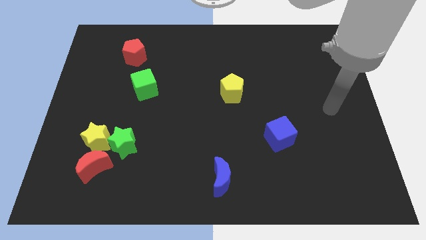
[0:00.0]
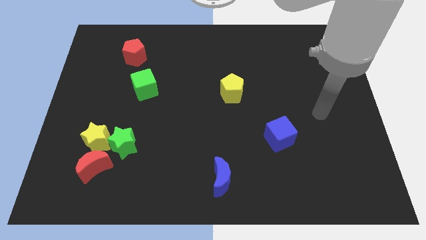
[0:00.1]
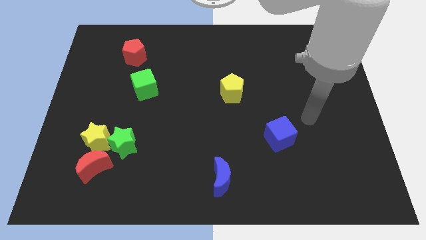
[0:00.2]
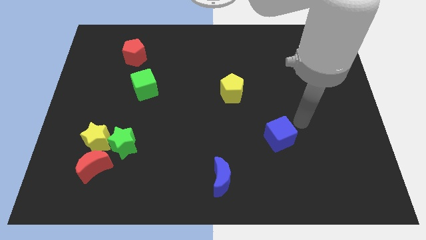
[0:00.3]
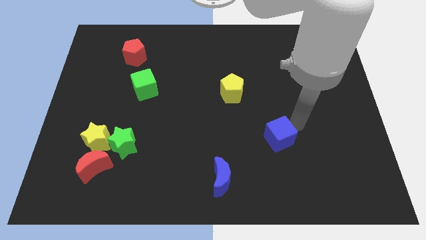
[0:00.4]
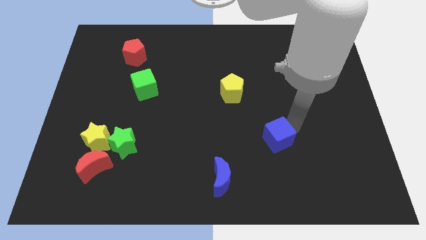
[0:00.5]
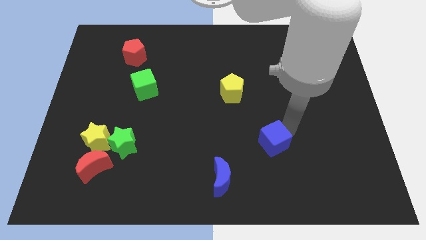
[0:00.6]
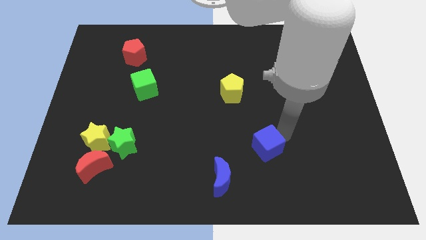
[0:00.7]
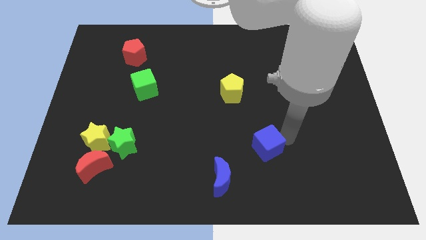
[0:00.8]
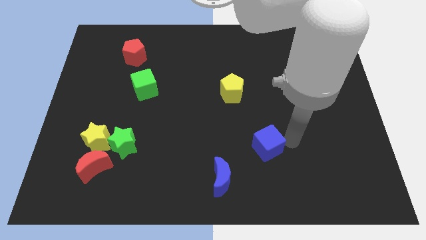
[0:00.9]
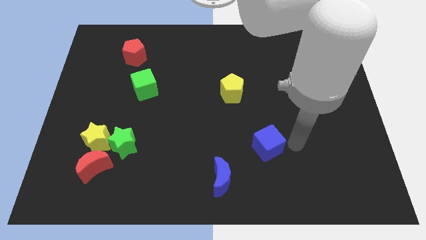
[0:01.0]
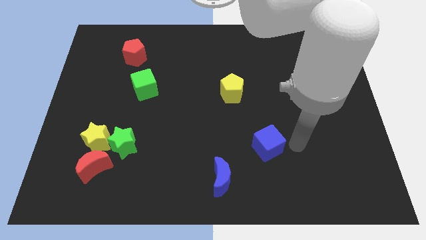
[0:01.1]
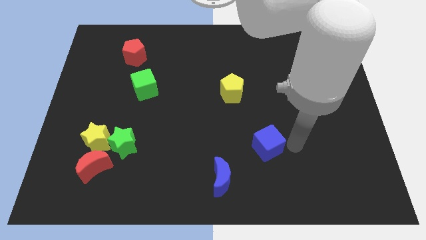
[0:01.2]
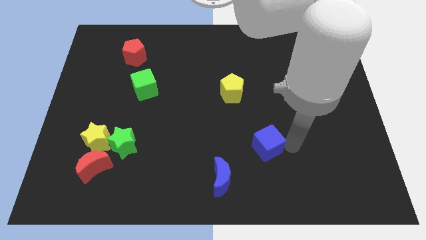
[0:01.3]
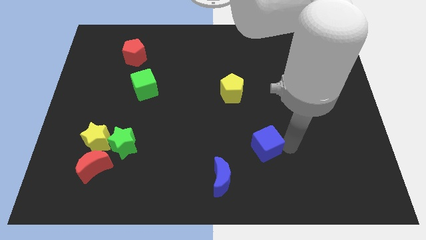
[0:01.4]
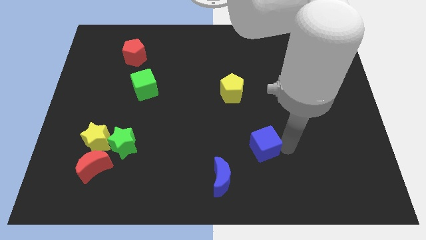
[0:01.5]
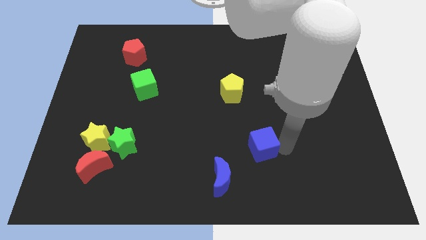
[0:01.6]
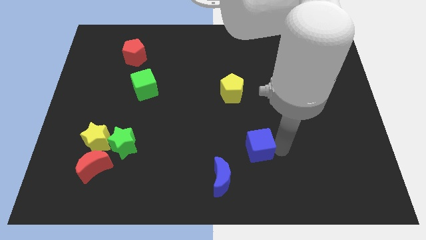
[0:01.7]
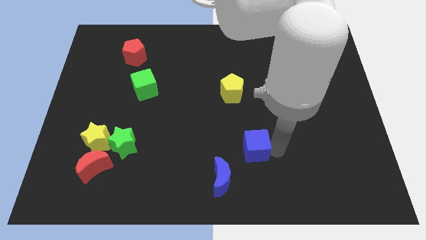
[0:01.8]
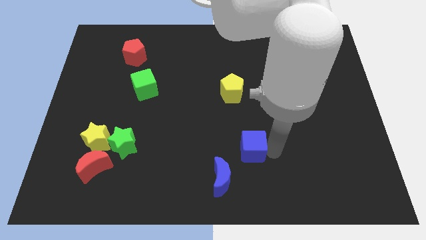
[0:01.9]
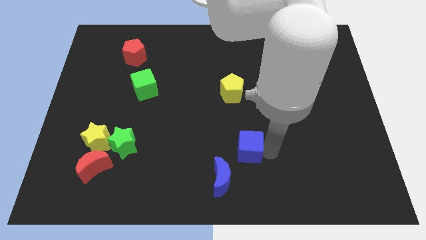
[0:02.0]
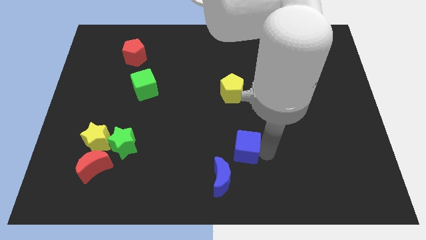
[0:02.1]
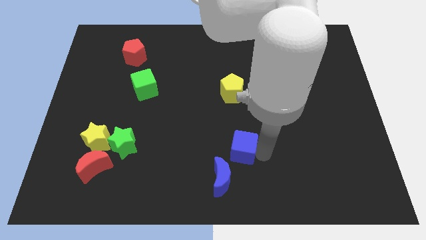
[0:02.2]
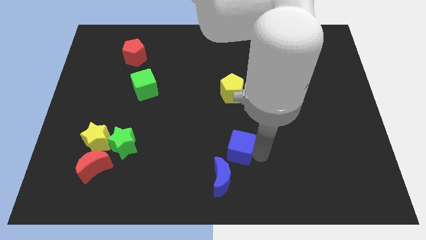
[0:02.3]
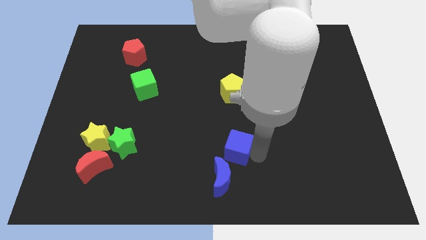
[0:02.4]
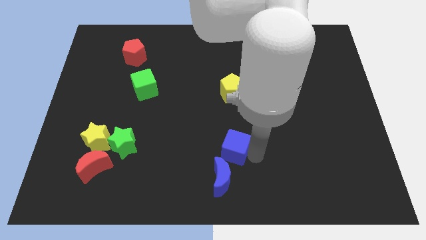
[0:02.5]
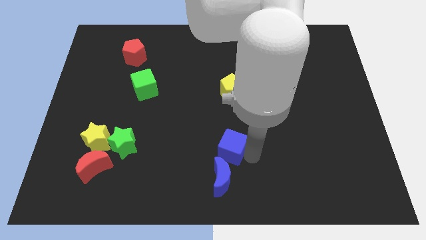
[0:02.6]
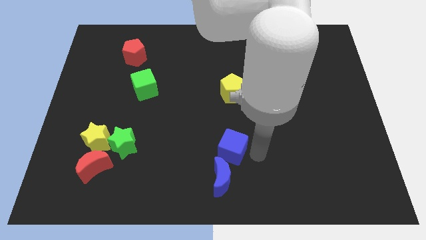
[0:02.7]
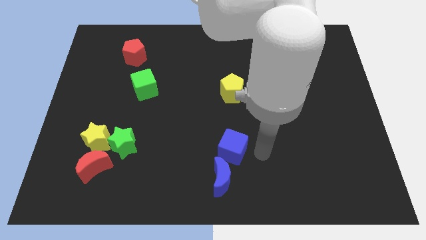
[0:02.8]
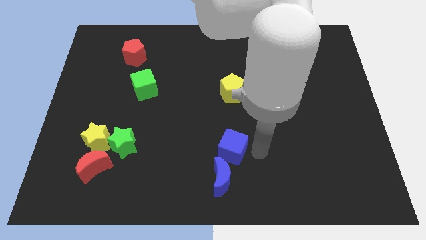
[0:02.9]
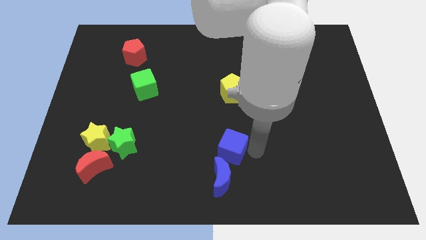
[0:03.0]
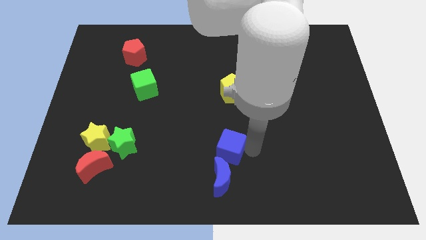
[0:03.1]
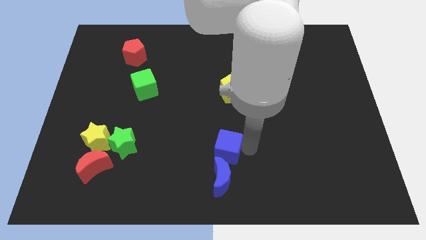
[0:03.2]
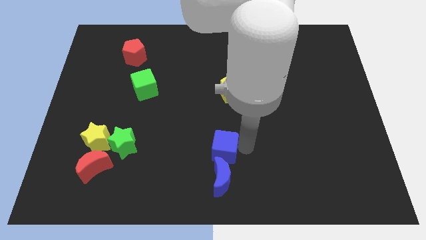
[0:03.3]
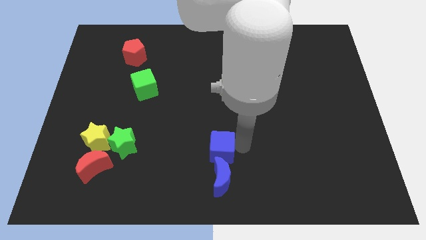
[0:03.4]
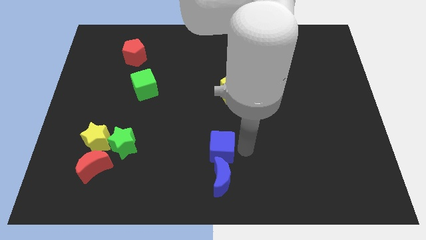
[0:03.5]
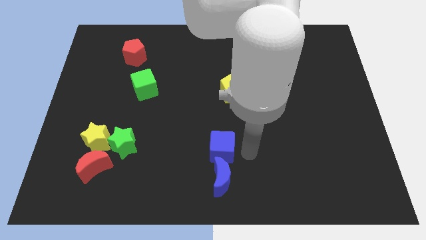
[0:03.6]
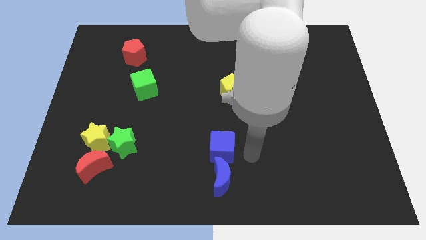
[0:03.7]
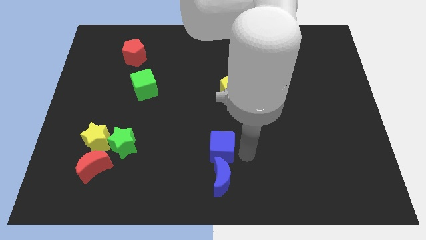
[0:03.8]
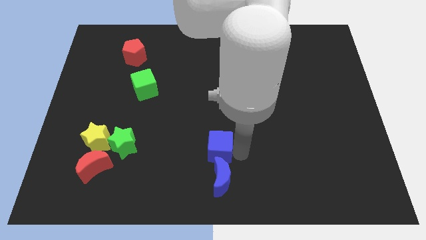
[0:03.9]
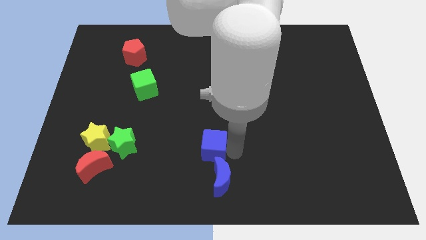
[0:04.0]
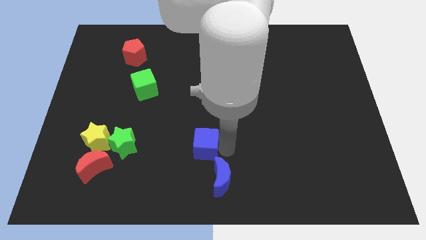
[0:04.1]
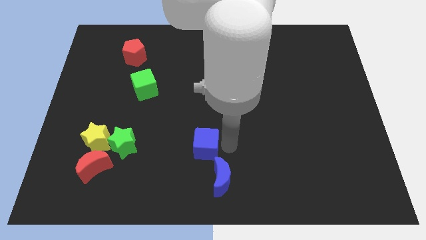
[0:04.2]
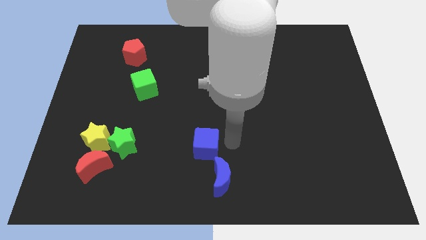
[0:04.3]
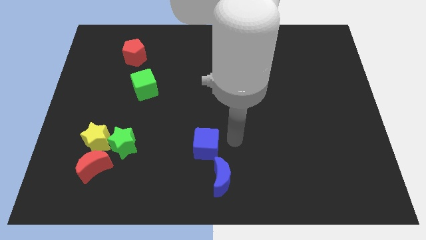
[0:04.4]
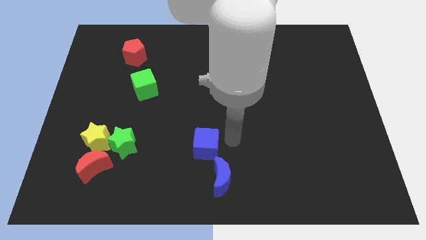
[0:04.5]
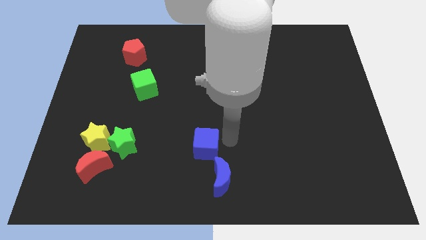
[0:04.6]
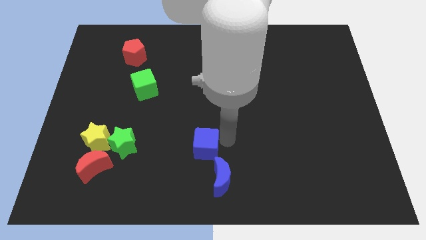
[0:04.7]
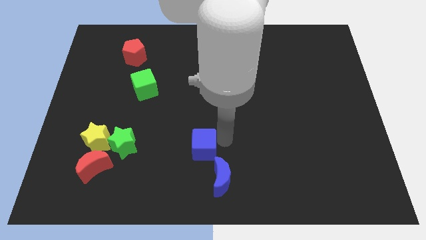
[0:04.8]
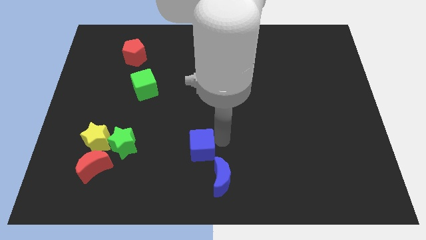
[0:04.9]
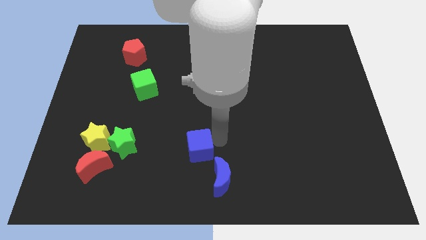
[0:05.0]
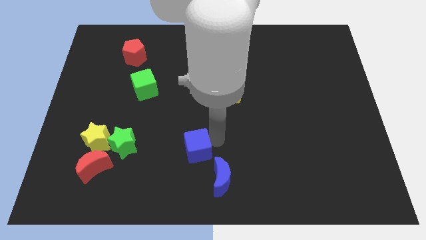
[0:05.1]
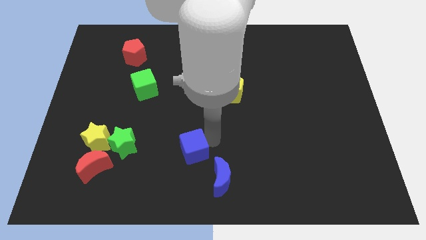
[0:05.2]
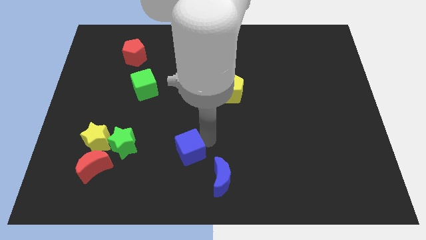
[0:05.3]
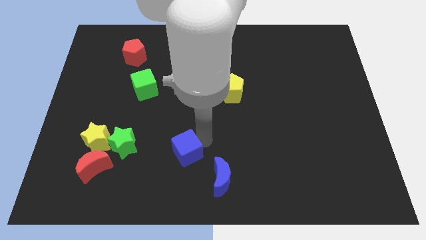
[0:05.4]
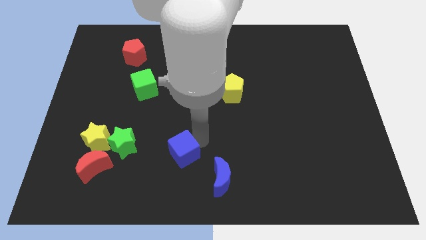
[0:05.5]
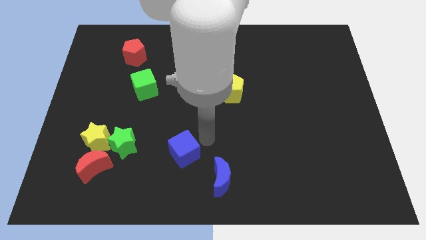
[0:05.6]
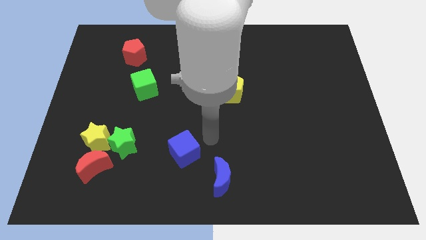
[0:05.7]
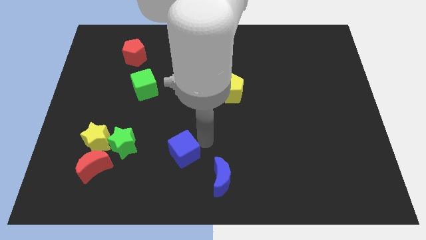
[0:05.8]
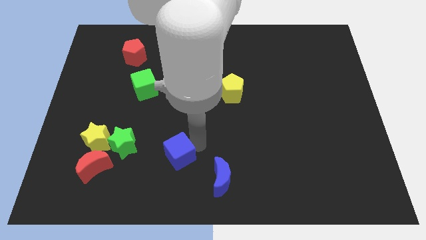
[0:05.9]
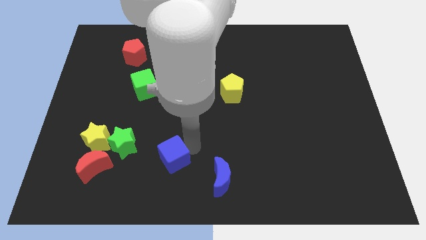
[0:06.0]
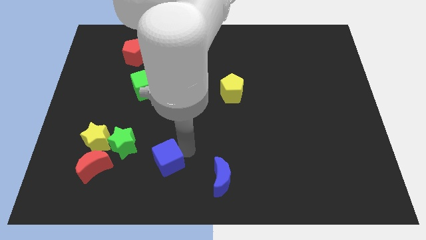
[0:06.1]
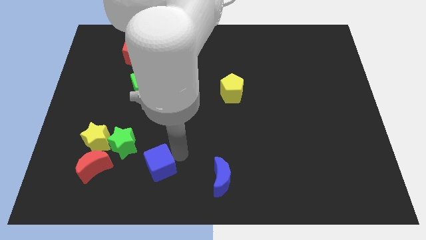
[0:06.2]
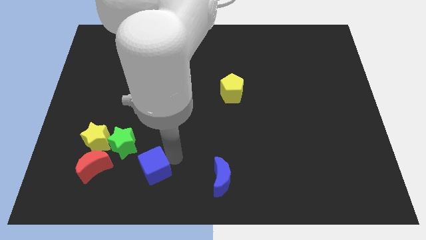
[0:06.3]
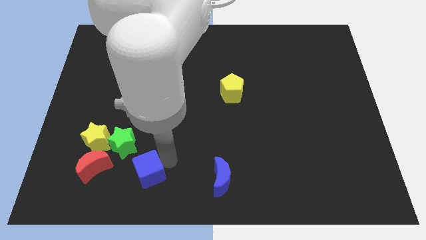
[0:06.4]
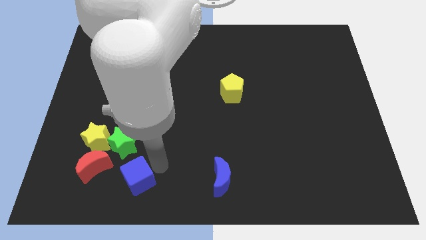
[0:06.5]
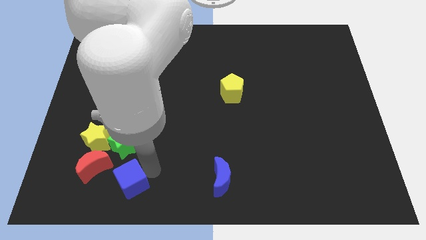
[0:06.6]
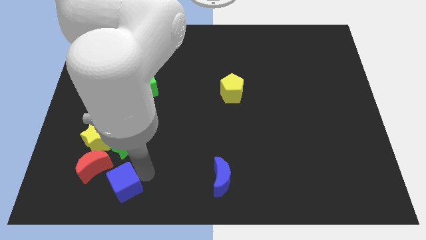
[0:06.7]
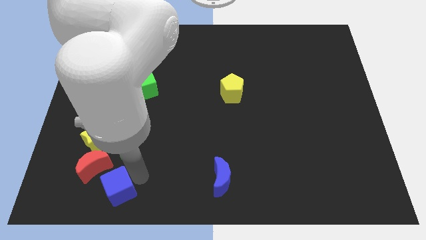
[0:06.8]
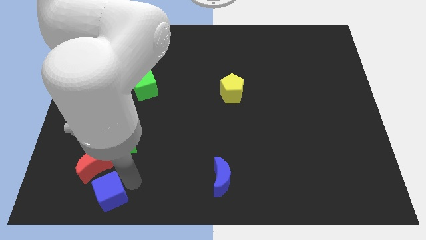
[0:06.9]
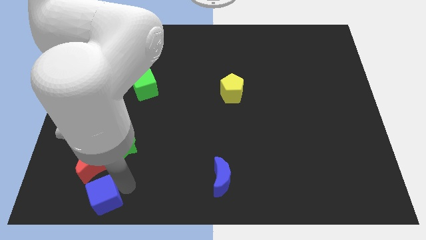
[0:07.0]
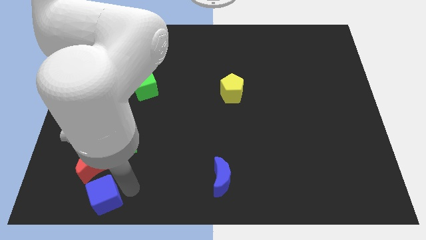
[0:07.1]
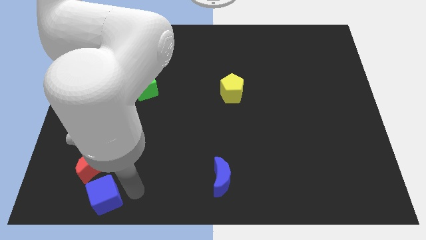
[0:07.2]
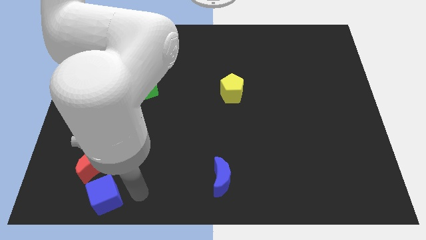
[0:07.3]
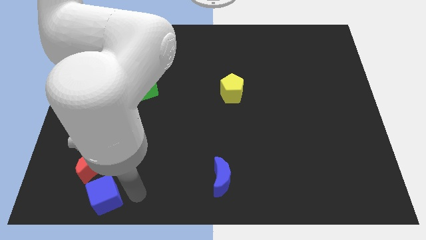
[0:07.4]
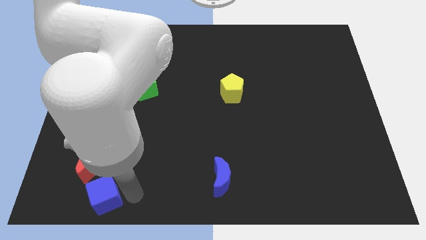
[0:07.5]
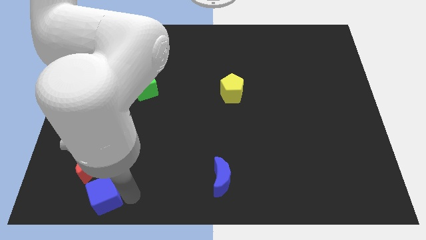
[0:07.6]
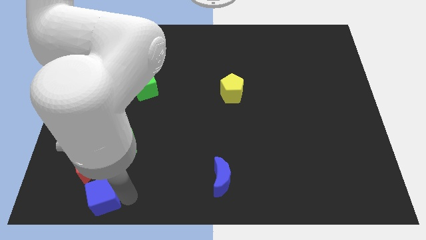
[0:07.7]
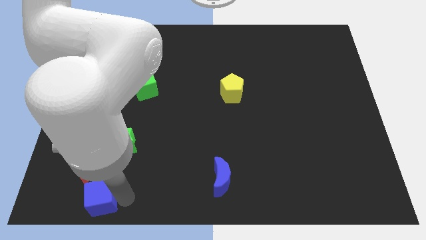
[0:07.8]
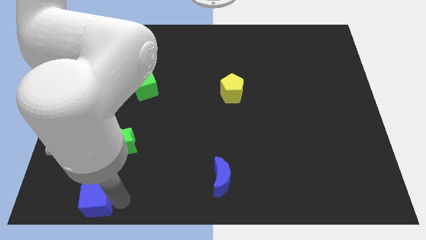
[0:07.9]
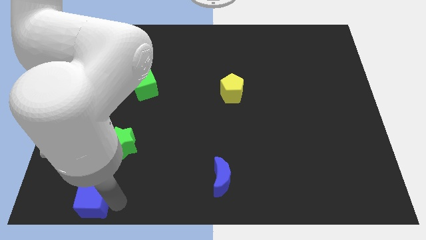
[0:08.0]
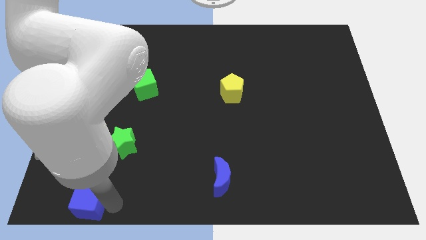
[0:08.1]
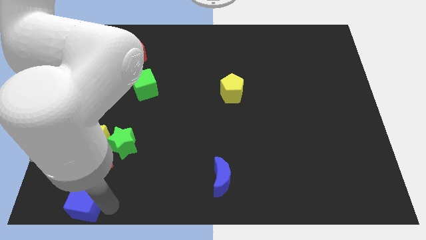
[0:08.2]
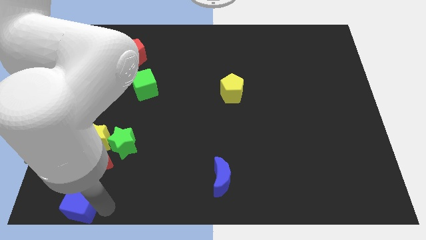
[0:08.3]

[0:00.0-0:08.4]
slide the blue cube to the bottom left
